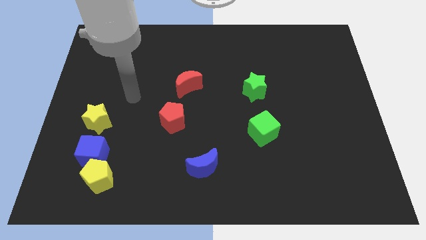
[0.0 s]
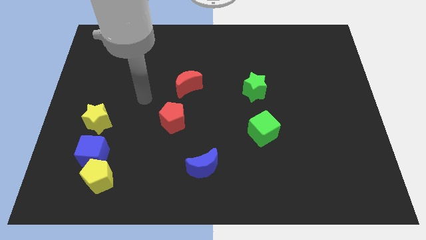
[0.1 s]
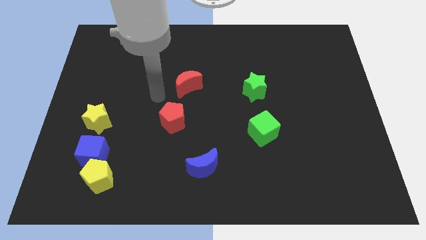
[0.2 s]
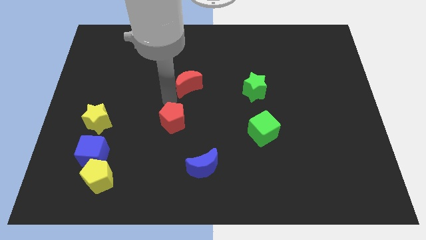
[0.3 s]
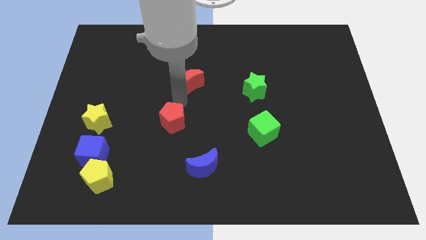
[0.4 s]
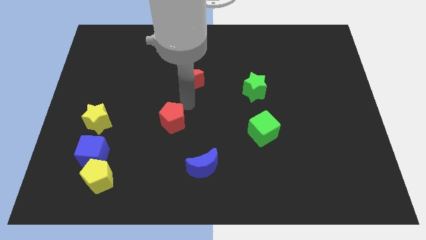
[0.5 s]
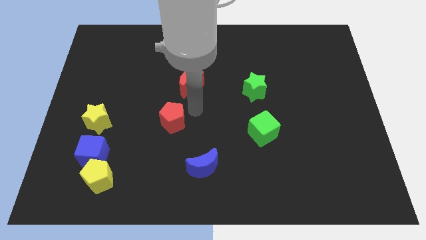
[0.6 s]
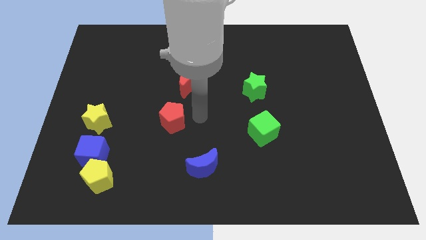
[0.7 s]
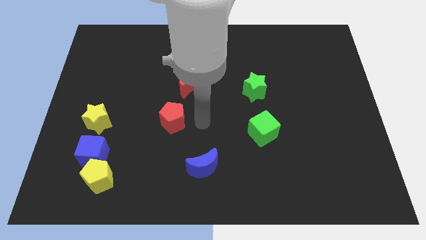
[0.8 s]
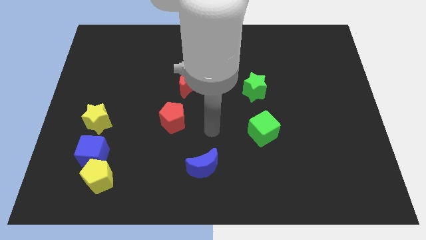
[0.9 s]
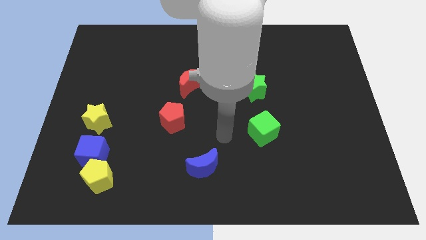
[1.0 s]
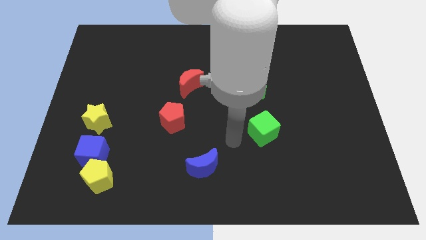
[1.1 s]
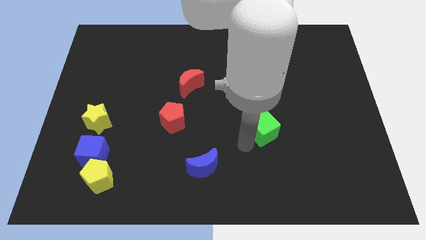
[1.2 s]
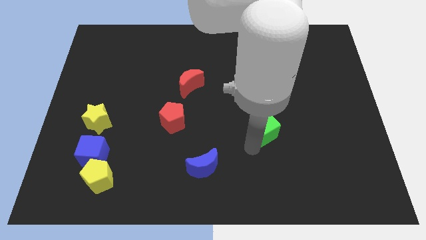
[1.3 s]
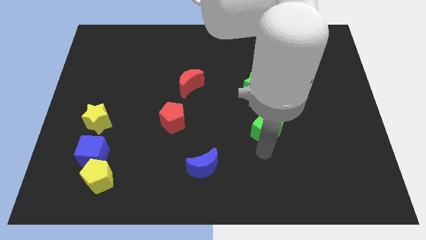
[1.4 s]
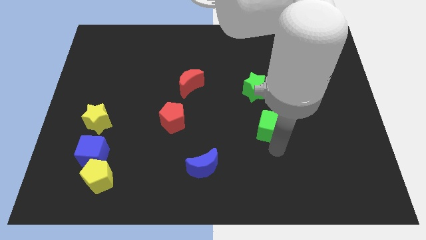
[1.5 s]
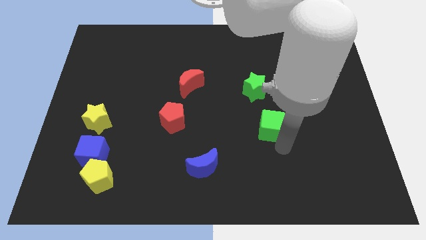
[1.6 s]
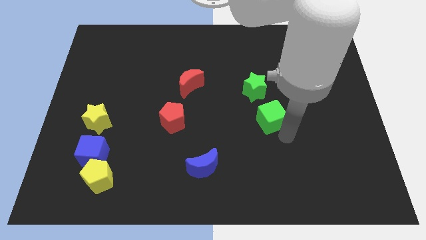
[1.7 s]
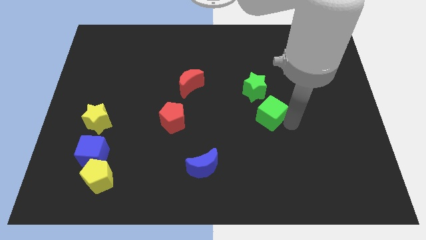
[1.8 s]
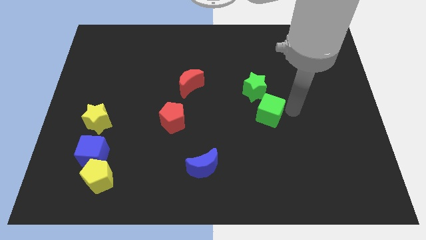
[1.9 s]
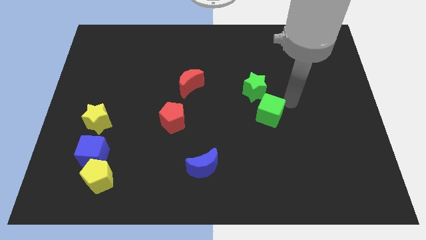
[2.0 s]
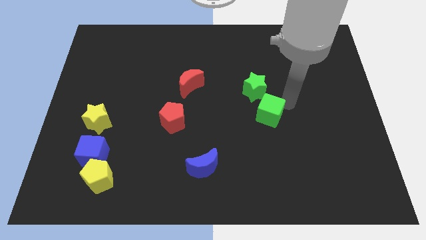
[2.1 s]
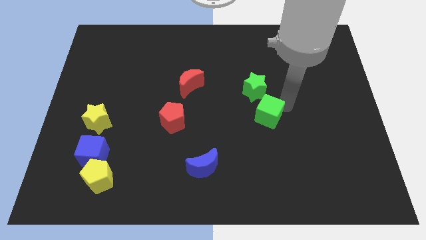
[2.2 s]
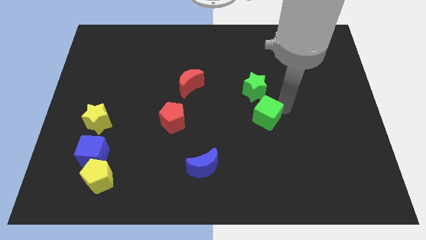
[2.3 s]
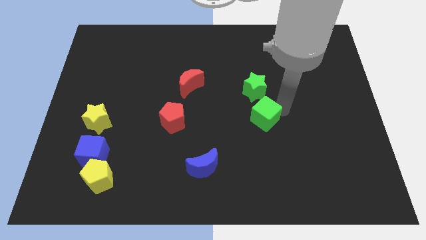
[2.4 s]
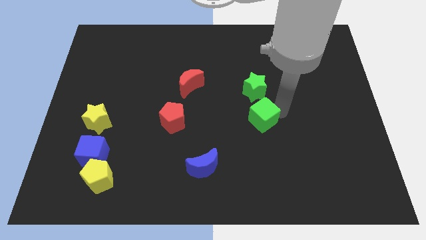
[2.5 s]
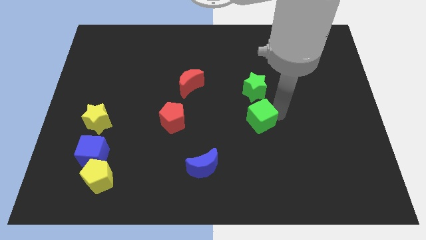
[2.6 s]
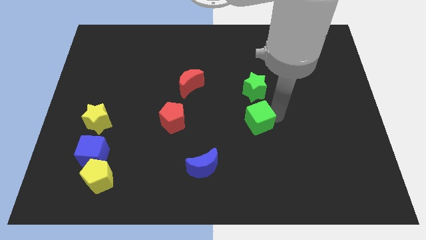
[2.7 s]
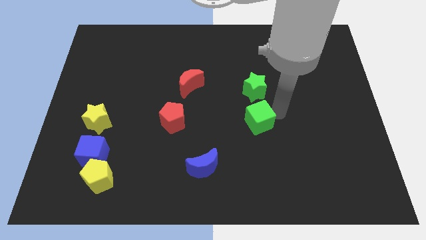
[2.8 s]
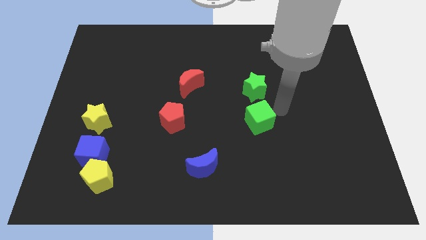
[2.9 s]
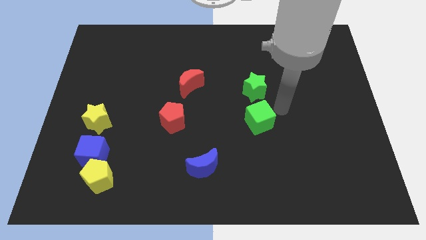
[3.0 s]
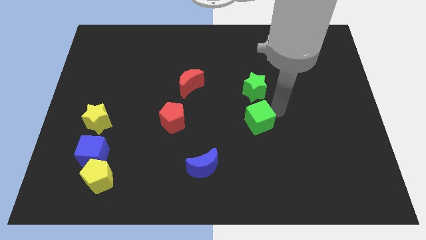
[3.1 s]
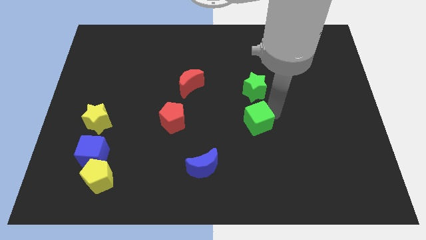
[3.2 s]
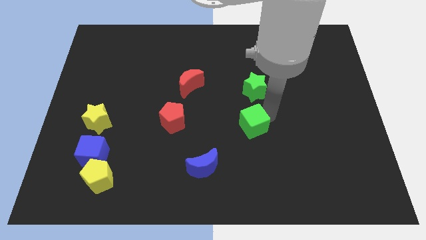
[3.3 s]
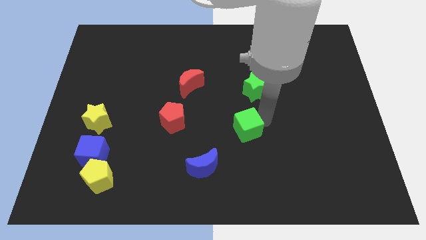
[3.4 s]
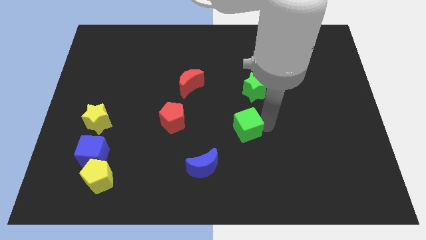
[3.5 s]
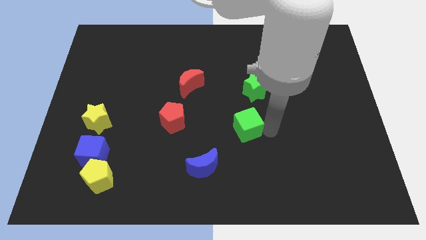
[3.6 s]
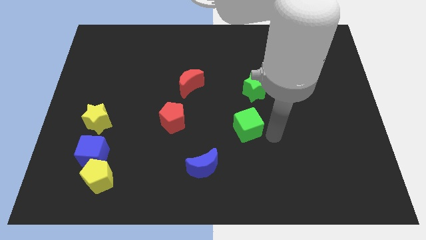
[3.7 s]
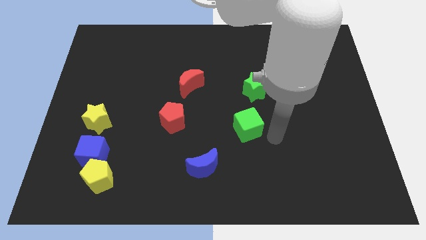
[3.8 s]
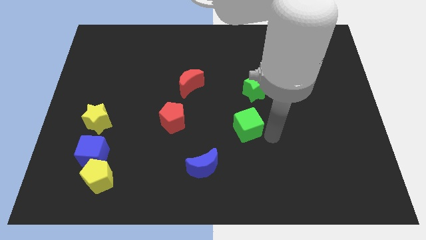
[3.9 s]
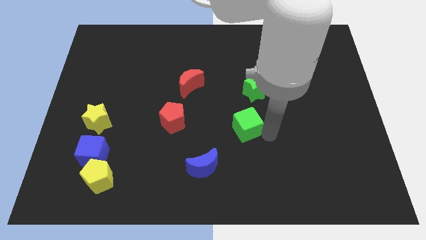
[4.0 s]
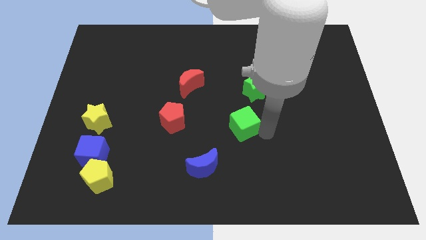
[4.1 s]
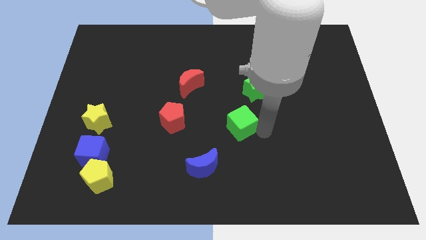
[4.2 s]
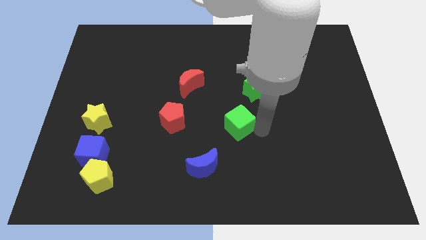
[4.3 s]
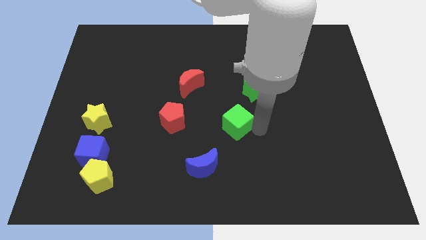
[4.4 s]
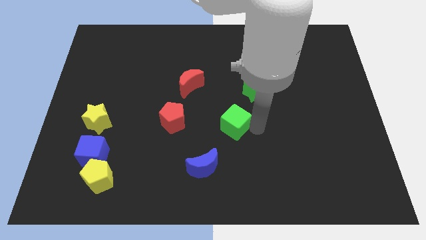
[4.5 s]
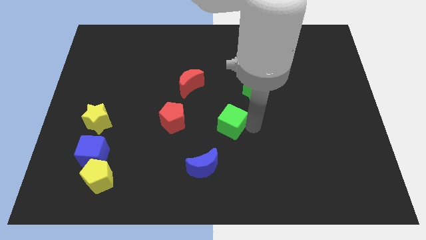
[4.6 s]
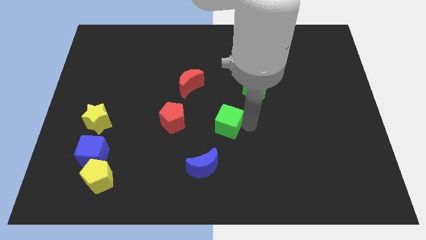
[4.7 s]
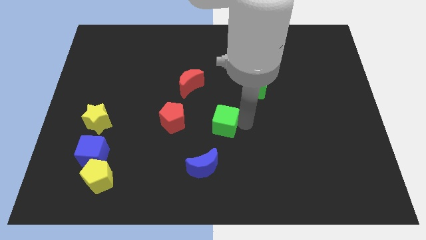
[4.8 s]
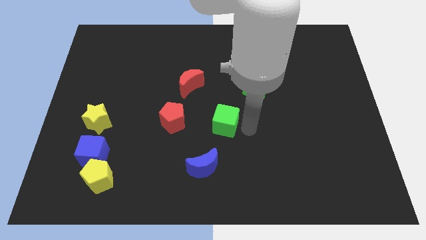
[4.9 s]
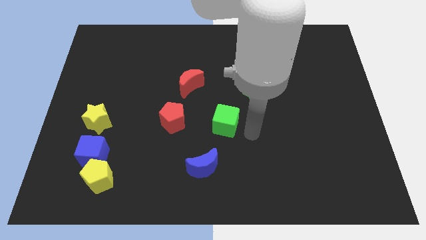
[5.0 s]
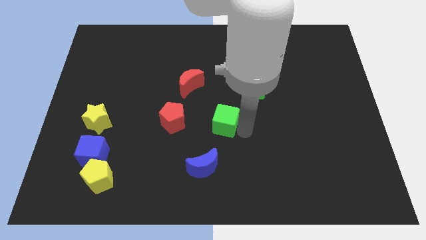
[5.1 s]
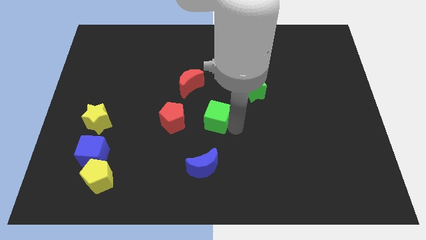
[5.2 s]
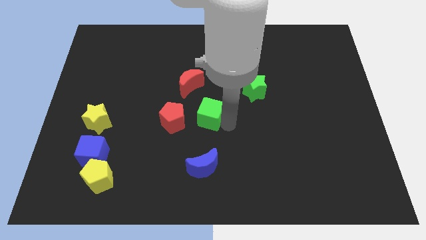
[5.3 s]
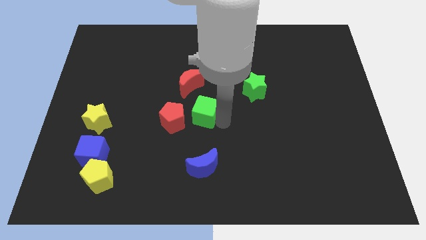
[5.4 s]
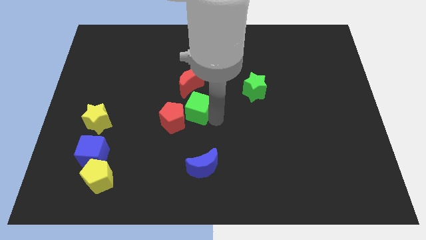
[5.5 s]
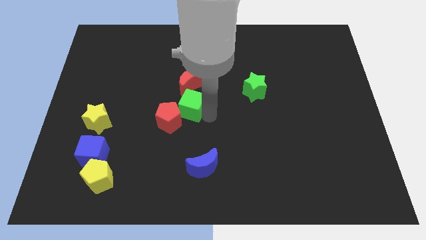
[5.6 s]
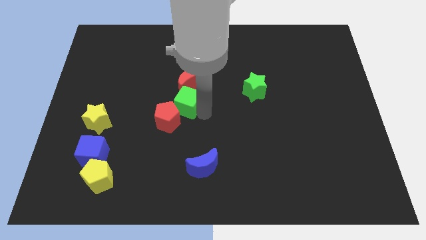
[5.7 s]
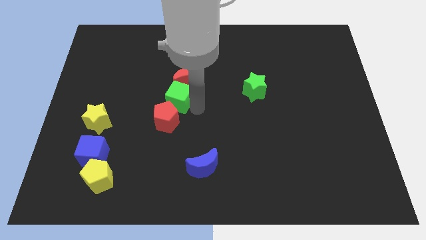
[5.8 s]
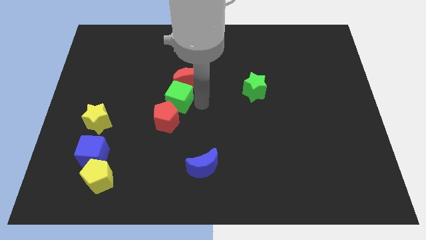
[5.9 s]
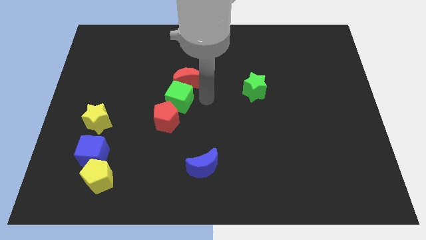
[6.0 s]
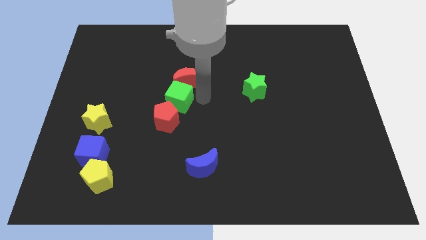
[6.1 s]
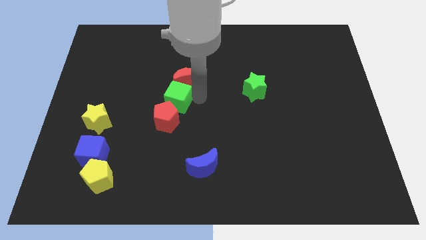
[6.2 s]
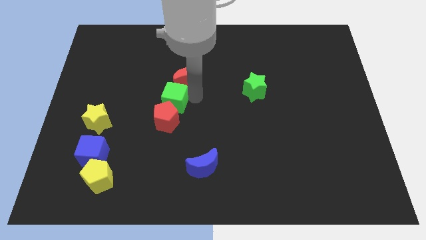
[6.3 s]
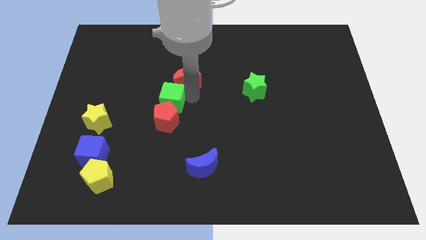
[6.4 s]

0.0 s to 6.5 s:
slide the green cube to the top left side of the red pentagon
